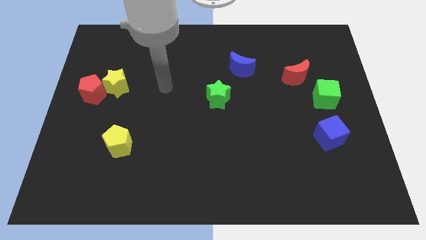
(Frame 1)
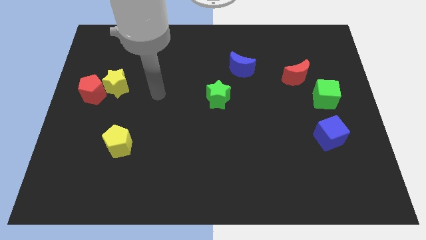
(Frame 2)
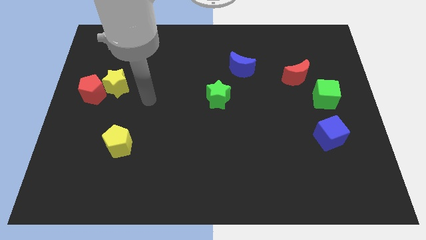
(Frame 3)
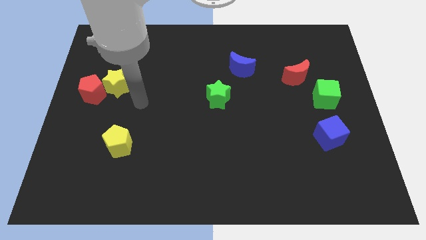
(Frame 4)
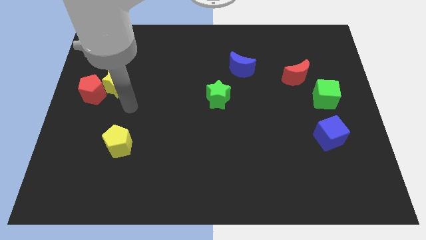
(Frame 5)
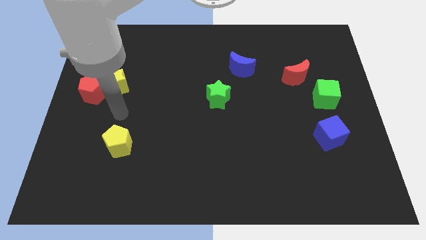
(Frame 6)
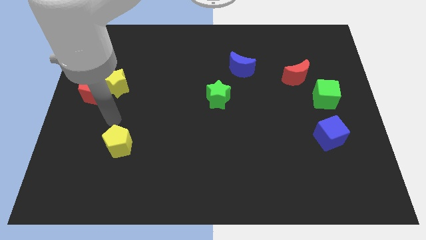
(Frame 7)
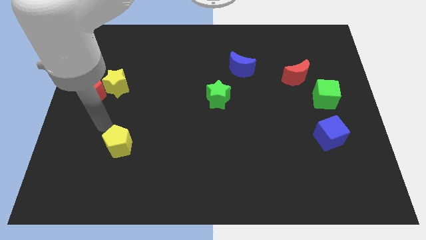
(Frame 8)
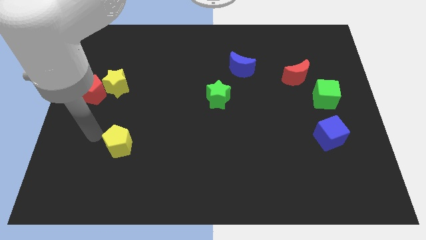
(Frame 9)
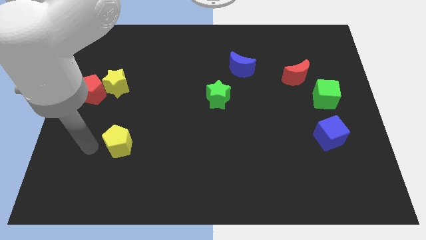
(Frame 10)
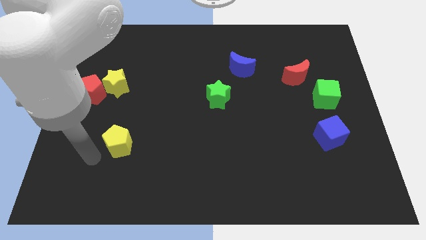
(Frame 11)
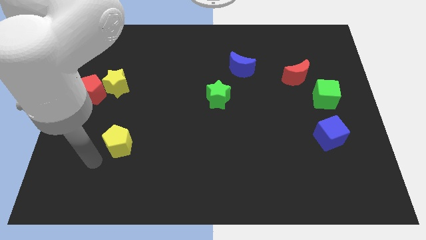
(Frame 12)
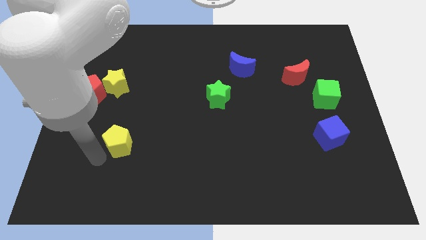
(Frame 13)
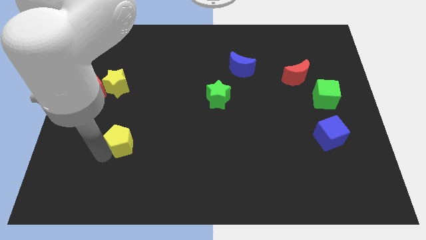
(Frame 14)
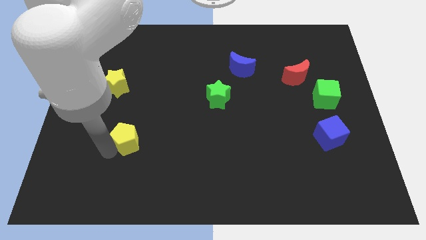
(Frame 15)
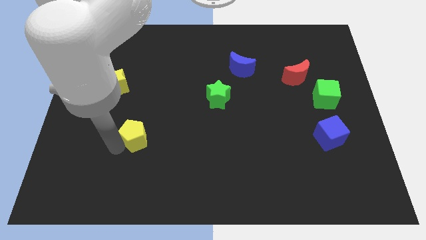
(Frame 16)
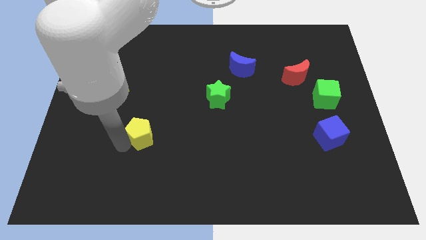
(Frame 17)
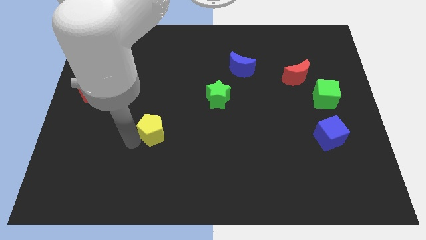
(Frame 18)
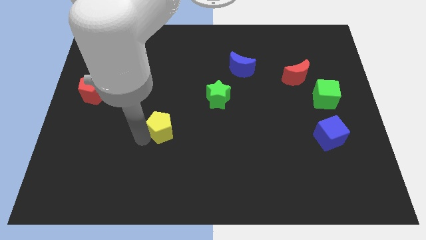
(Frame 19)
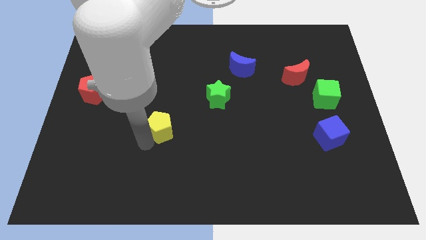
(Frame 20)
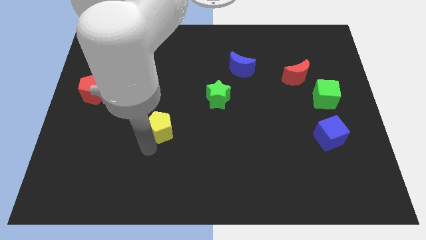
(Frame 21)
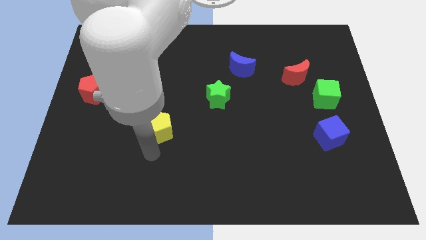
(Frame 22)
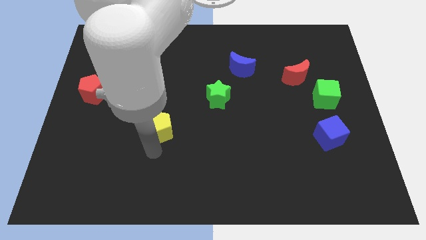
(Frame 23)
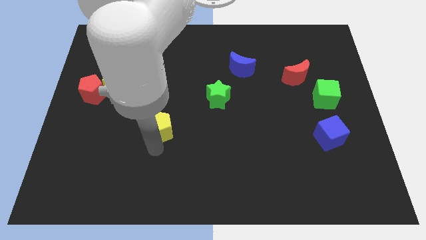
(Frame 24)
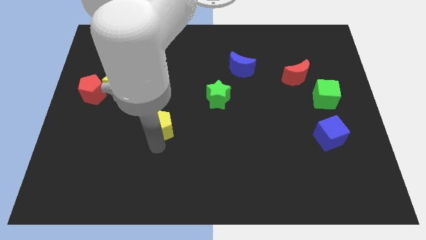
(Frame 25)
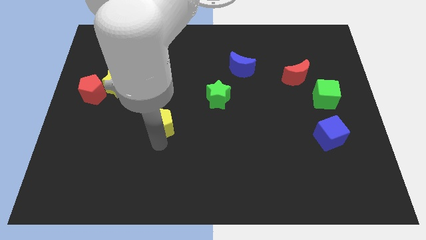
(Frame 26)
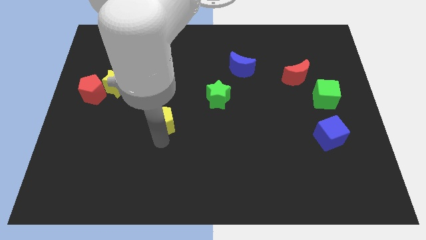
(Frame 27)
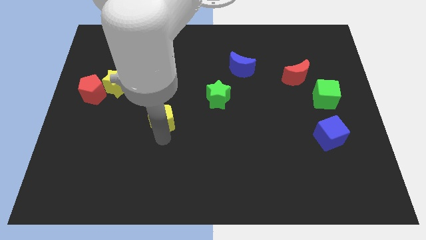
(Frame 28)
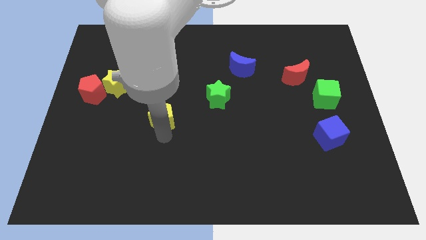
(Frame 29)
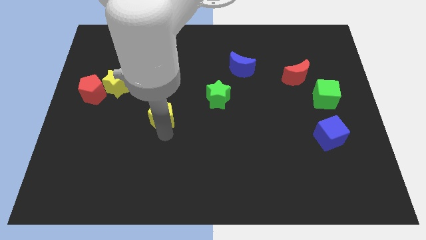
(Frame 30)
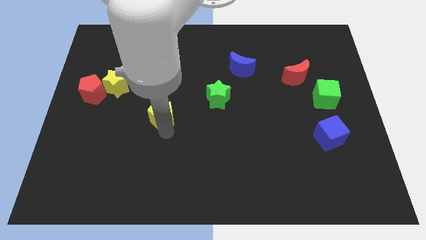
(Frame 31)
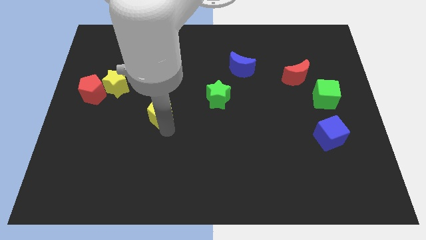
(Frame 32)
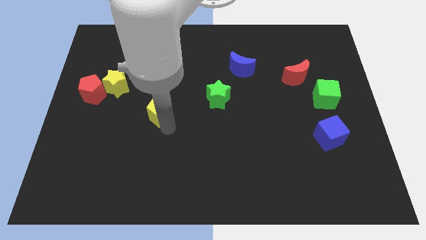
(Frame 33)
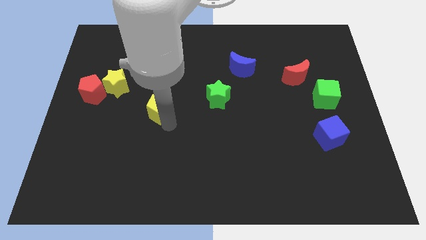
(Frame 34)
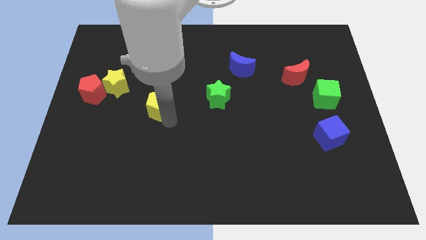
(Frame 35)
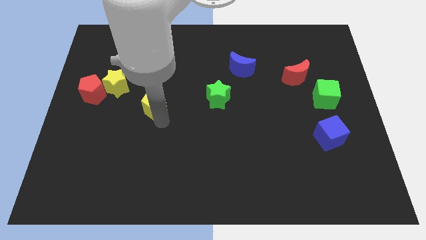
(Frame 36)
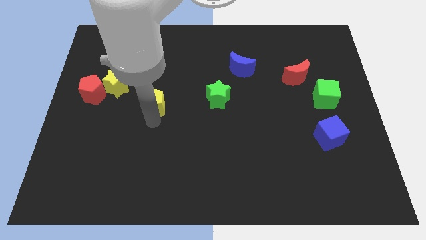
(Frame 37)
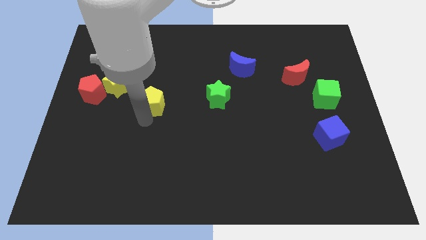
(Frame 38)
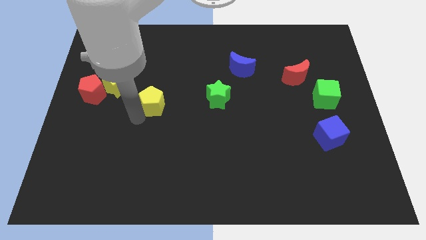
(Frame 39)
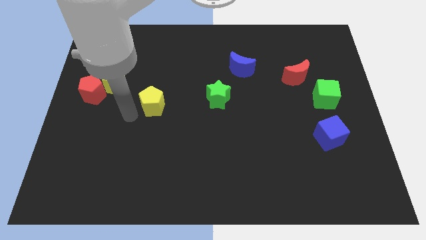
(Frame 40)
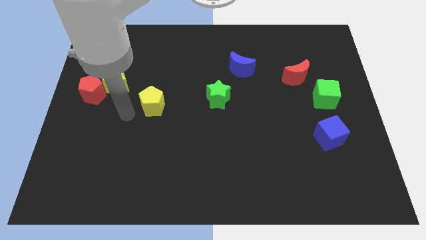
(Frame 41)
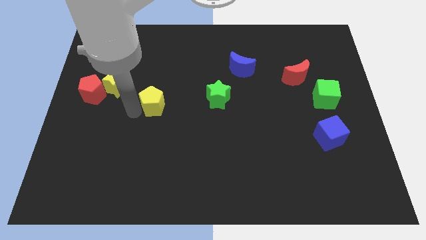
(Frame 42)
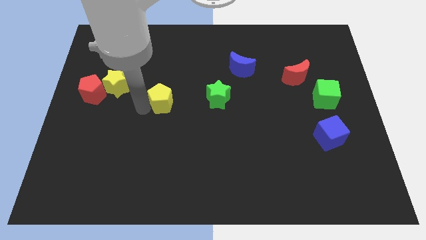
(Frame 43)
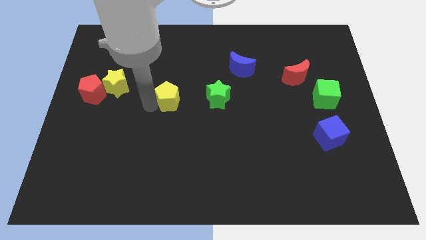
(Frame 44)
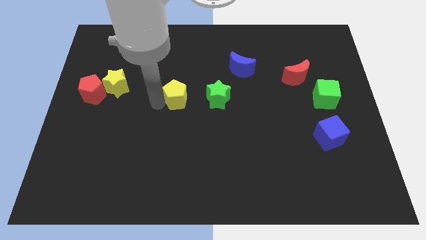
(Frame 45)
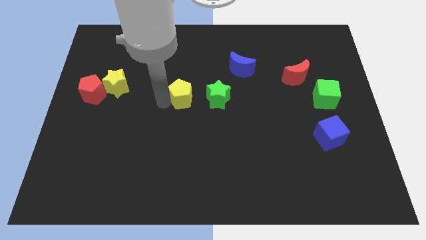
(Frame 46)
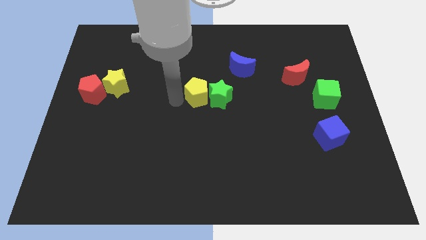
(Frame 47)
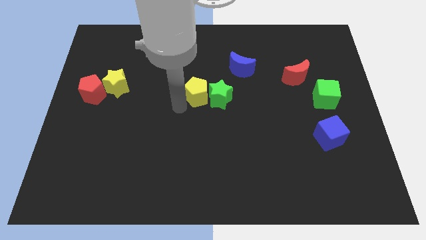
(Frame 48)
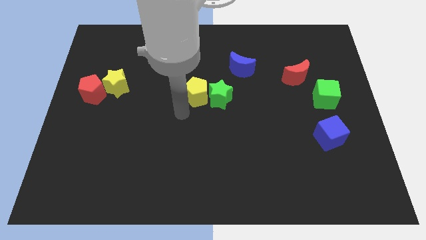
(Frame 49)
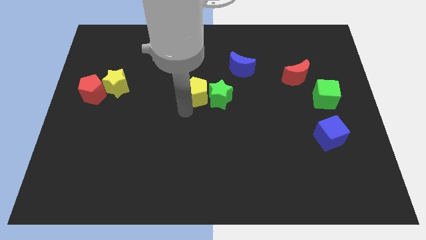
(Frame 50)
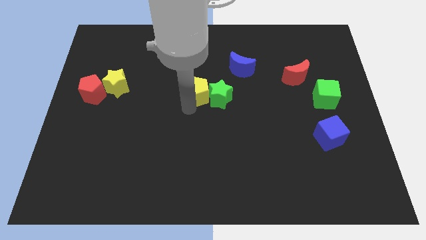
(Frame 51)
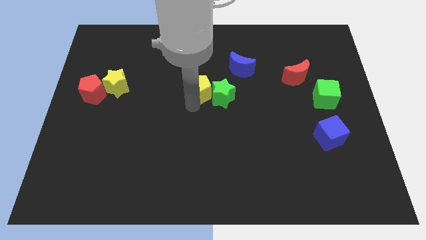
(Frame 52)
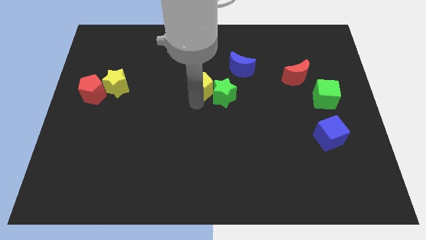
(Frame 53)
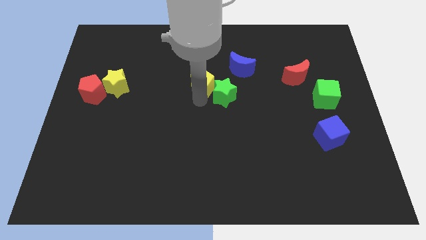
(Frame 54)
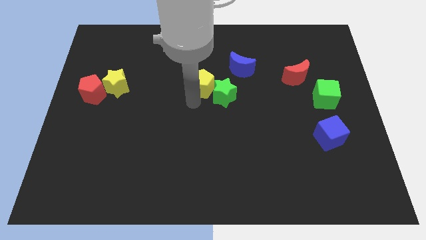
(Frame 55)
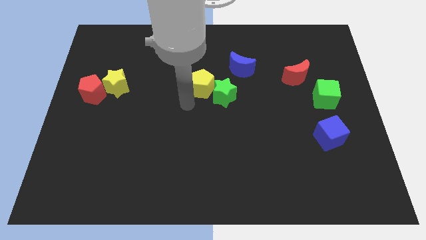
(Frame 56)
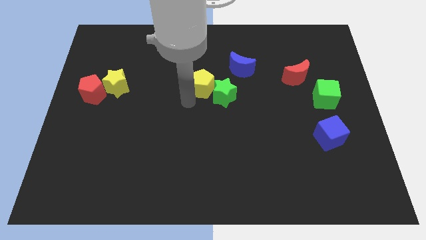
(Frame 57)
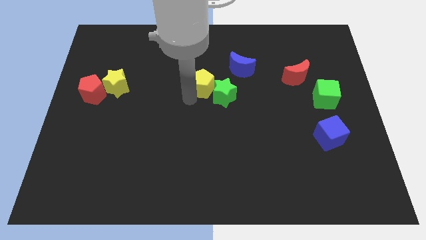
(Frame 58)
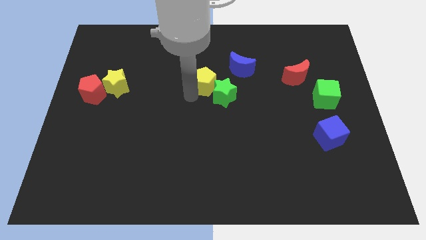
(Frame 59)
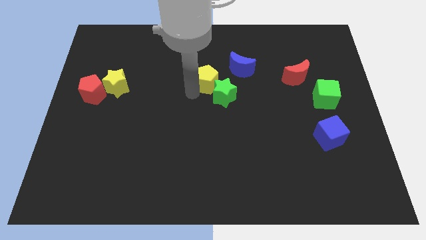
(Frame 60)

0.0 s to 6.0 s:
push the yellow pentagon to the top side of the green star
